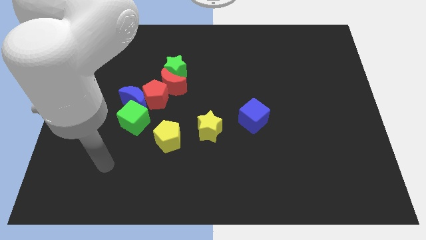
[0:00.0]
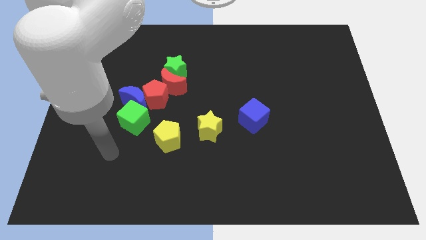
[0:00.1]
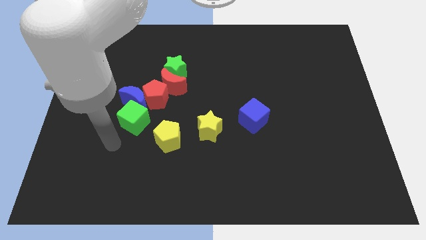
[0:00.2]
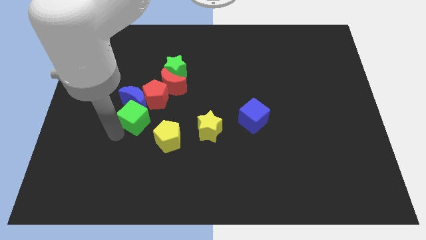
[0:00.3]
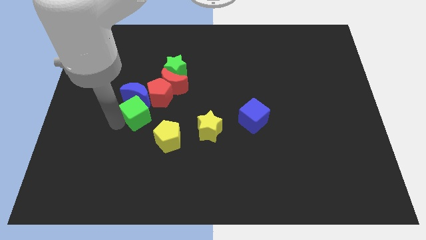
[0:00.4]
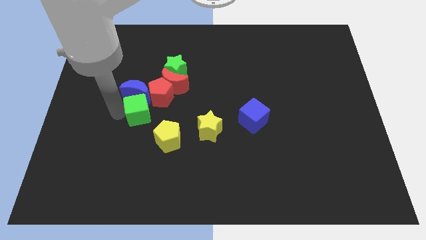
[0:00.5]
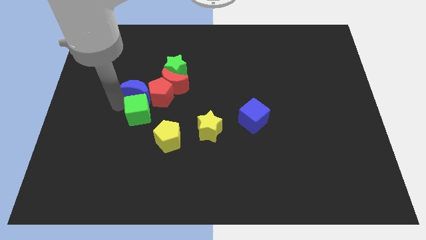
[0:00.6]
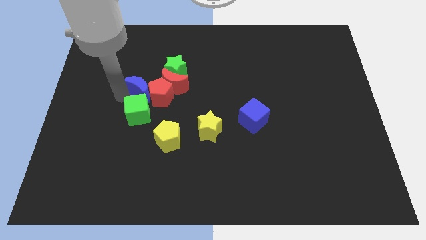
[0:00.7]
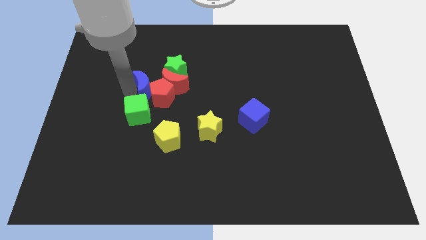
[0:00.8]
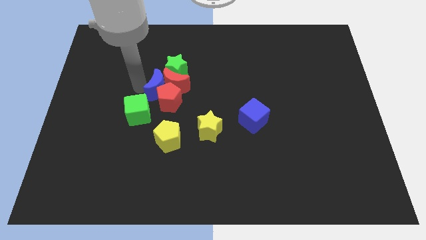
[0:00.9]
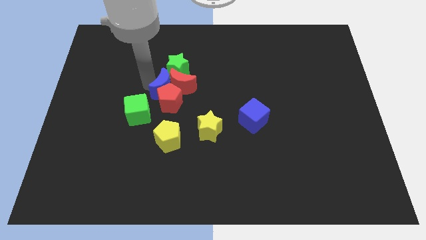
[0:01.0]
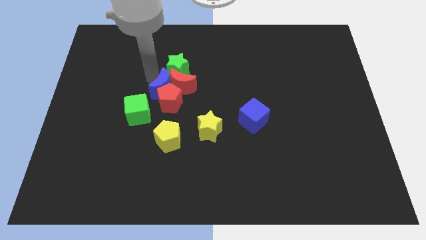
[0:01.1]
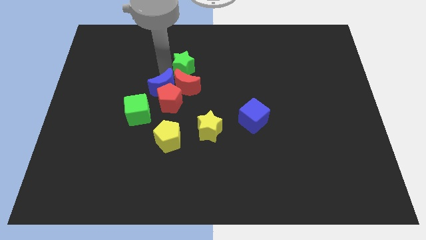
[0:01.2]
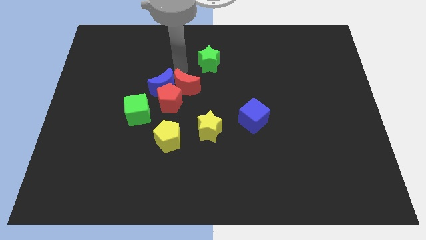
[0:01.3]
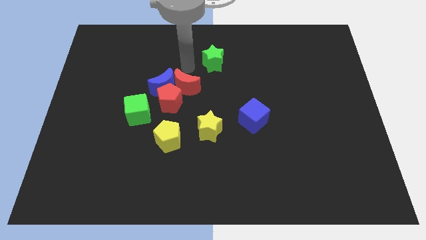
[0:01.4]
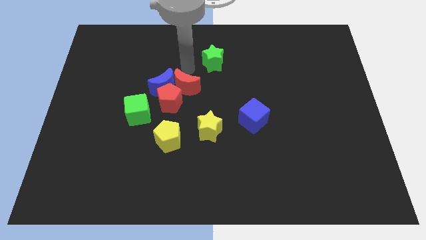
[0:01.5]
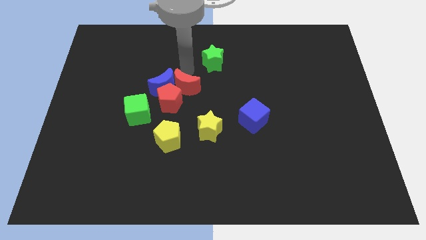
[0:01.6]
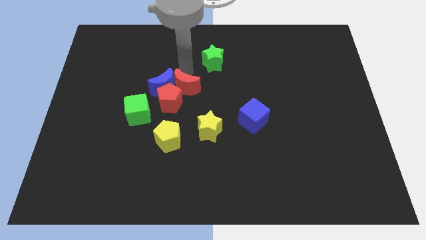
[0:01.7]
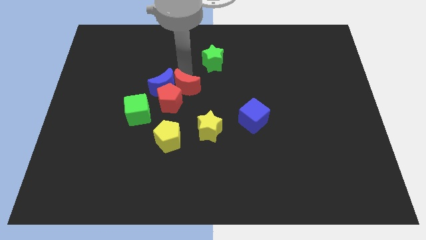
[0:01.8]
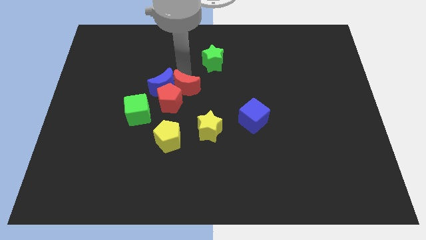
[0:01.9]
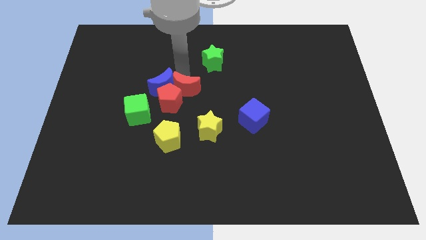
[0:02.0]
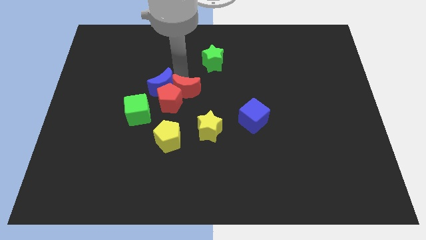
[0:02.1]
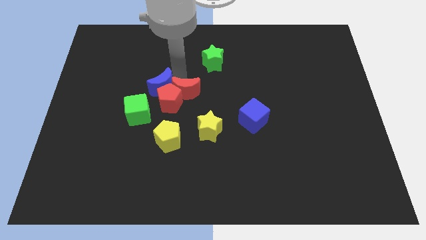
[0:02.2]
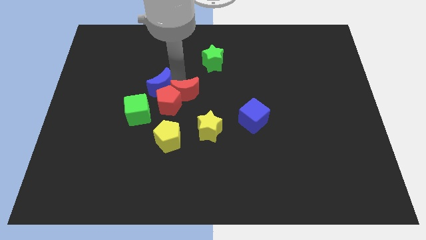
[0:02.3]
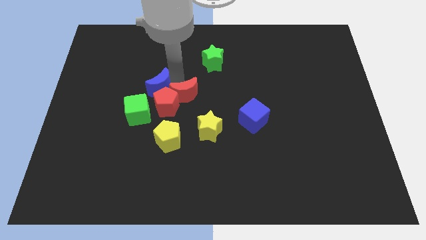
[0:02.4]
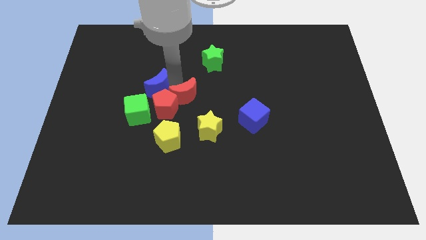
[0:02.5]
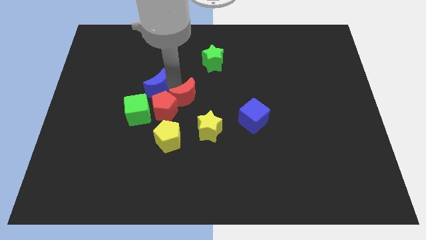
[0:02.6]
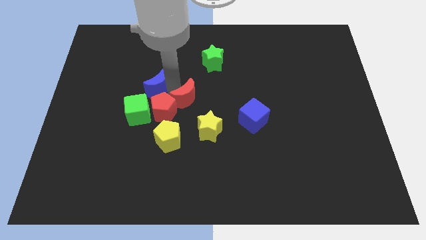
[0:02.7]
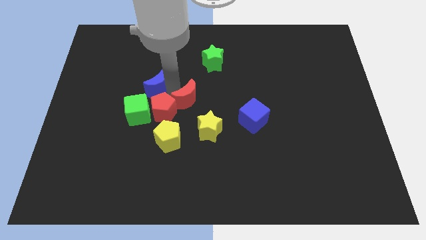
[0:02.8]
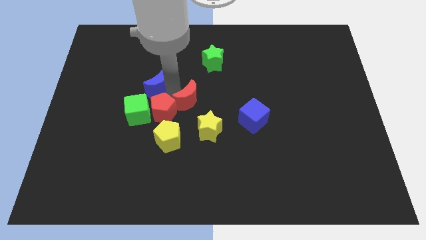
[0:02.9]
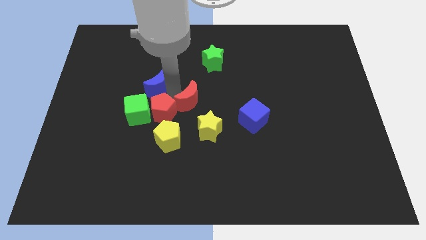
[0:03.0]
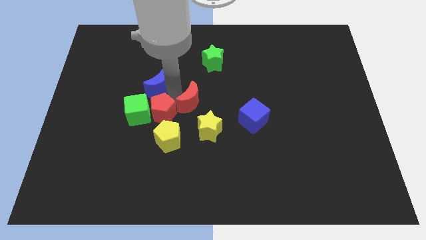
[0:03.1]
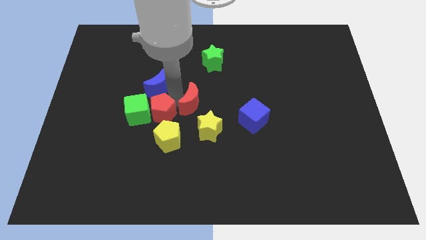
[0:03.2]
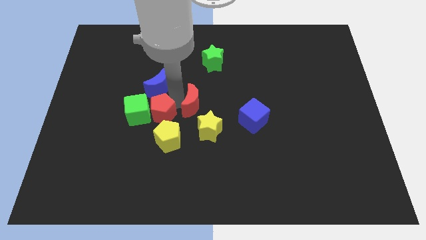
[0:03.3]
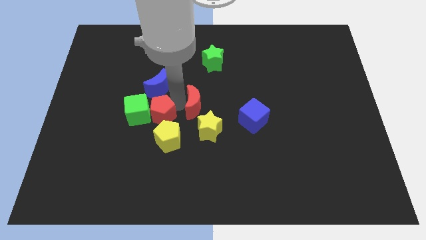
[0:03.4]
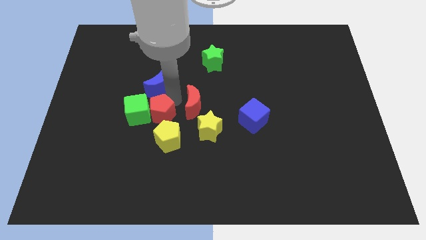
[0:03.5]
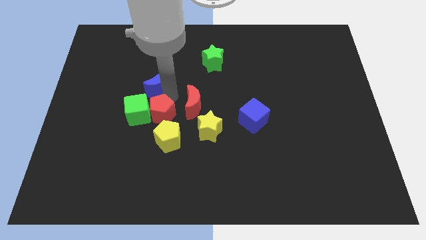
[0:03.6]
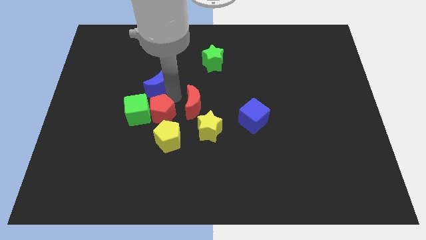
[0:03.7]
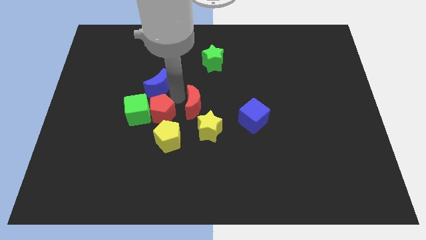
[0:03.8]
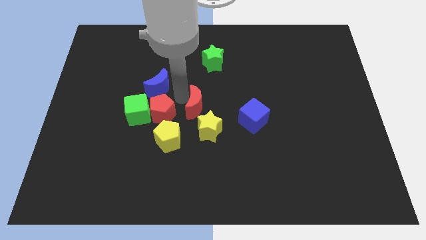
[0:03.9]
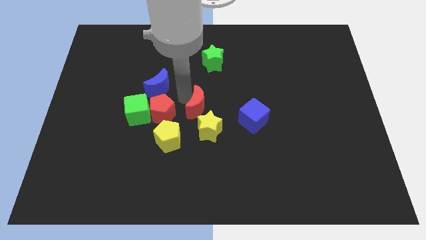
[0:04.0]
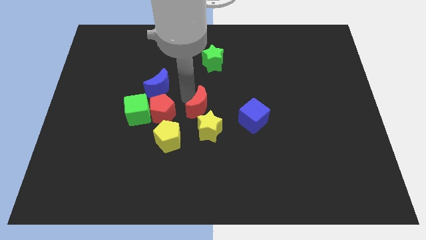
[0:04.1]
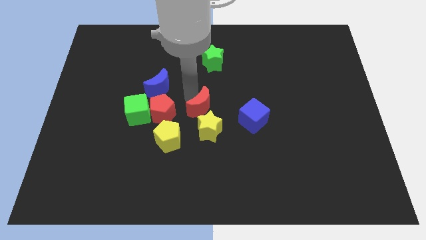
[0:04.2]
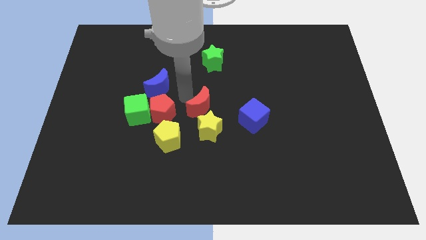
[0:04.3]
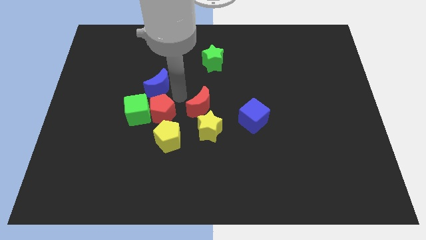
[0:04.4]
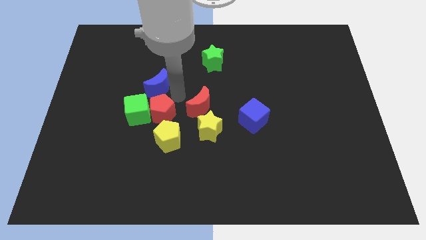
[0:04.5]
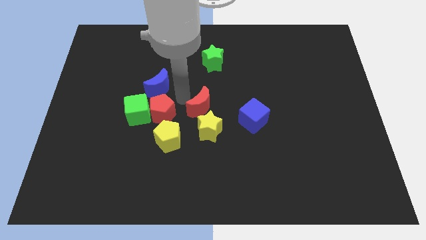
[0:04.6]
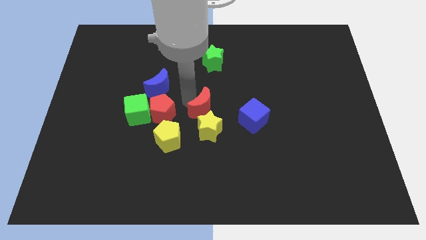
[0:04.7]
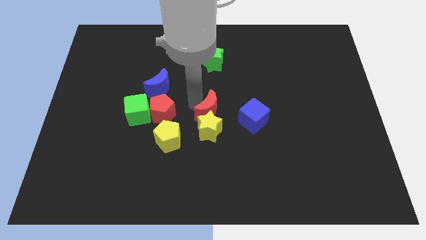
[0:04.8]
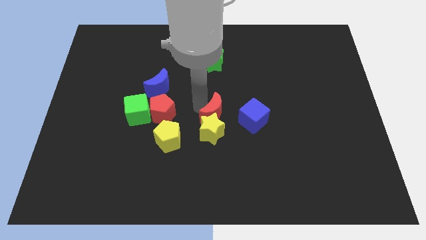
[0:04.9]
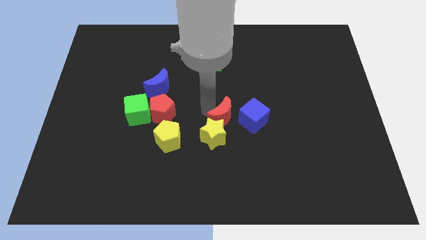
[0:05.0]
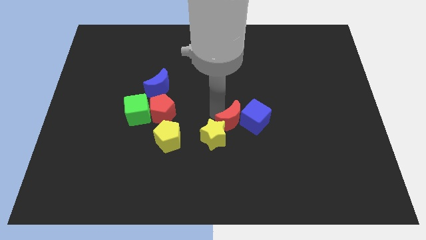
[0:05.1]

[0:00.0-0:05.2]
put the red moon to the right of the yellow star

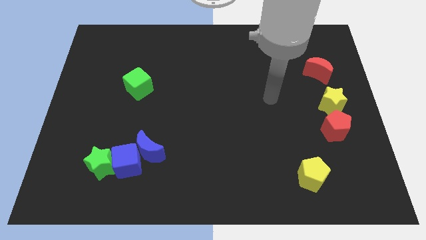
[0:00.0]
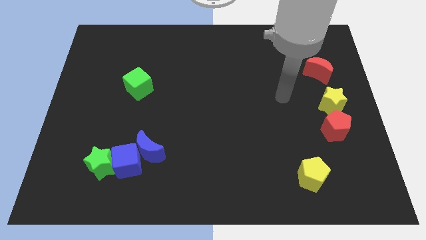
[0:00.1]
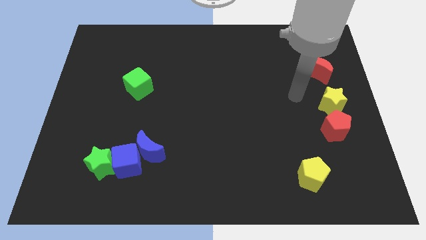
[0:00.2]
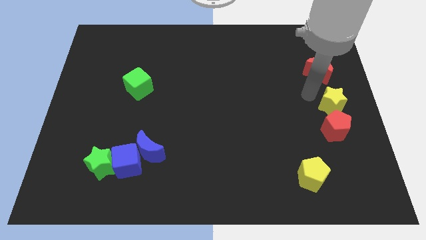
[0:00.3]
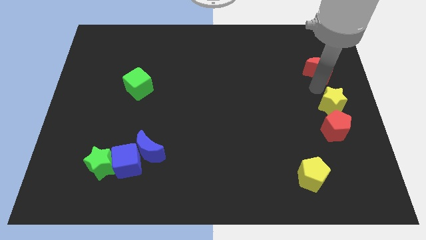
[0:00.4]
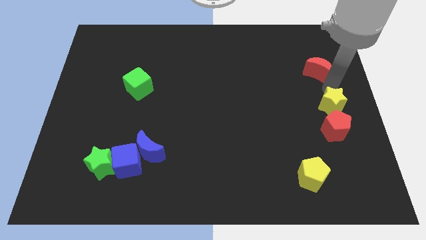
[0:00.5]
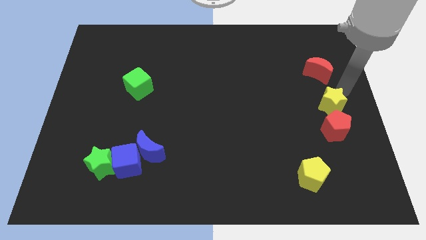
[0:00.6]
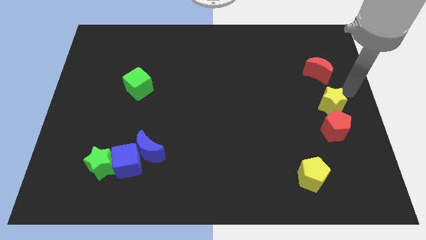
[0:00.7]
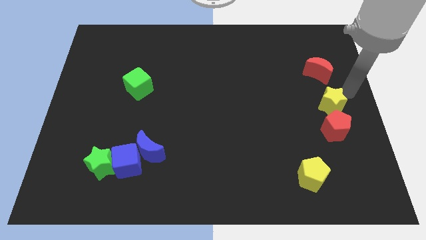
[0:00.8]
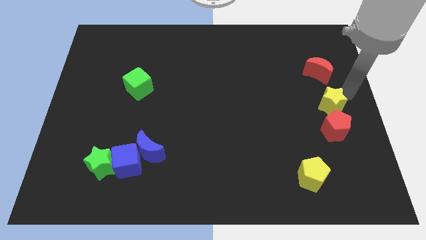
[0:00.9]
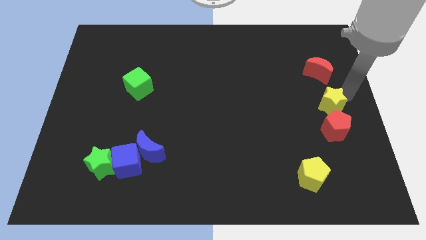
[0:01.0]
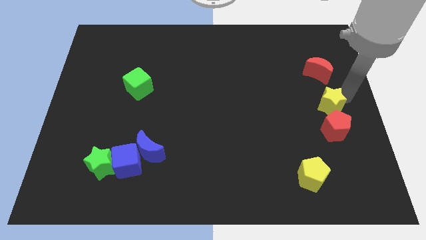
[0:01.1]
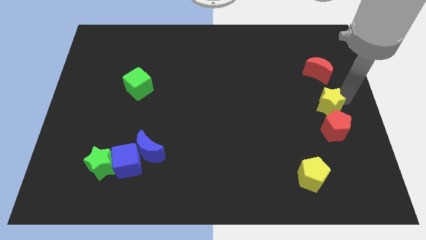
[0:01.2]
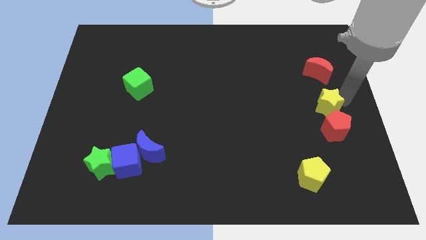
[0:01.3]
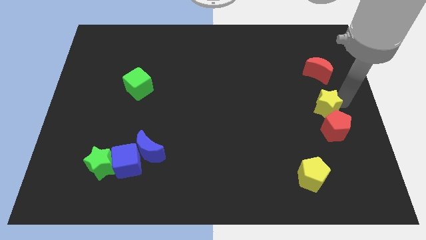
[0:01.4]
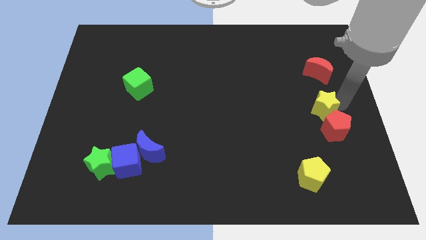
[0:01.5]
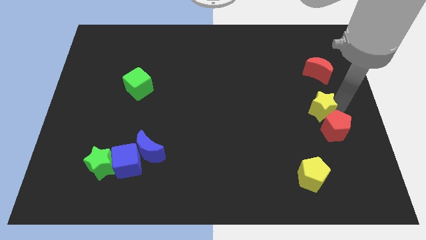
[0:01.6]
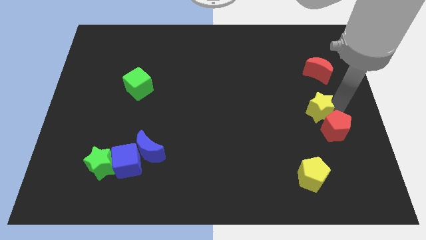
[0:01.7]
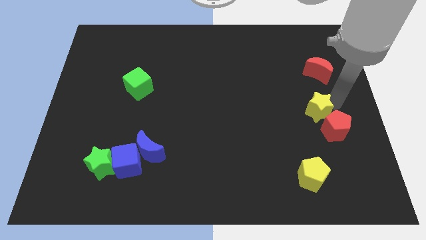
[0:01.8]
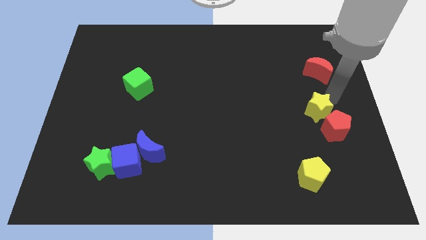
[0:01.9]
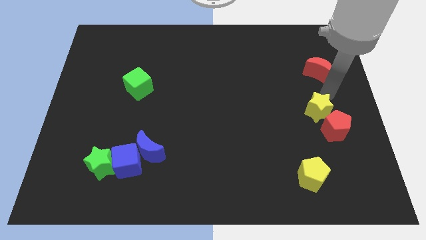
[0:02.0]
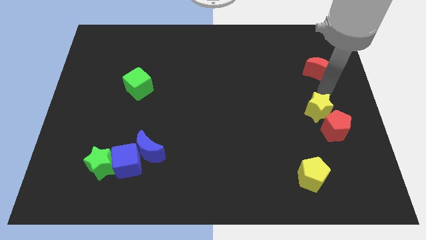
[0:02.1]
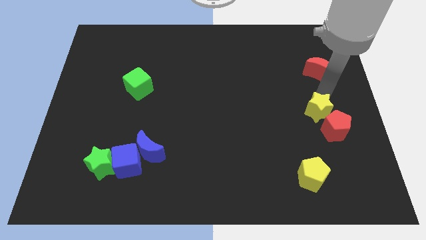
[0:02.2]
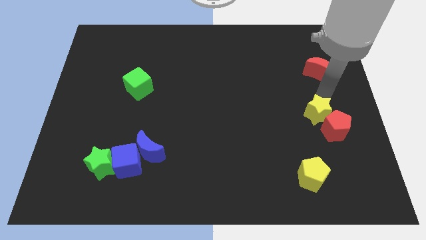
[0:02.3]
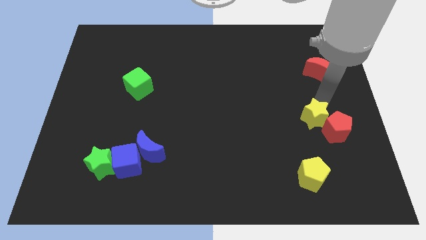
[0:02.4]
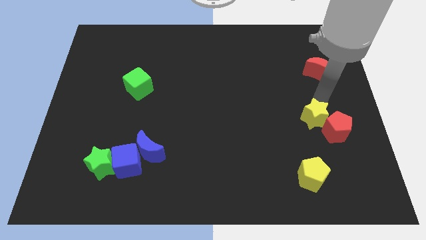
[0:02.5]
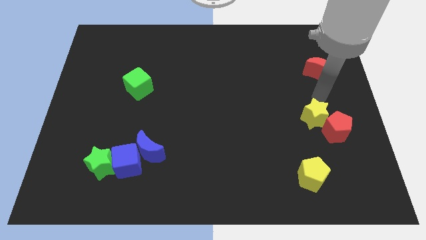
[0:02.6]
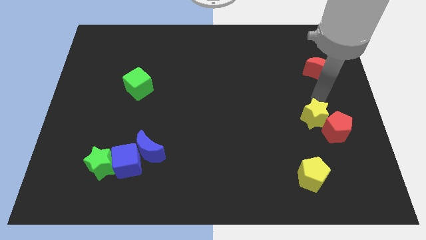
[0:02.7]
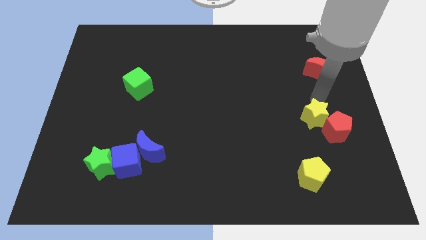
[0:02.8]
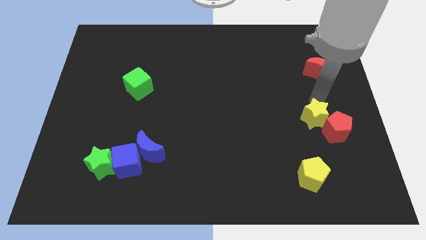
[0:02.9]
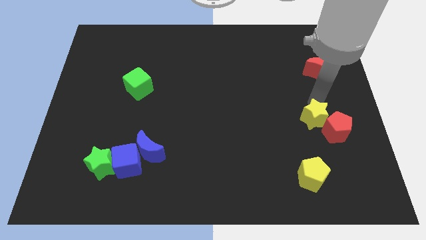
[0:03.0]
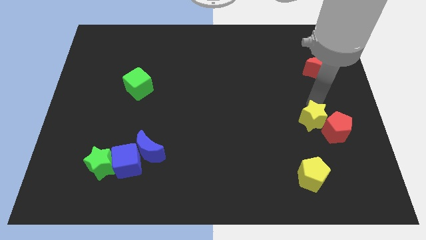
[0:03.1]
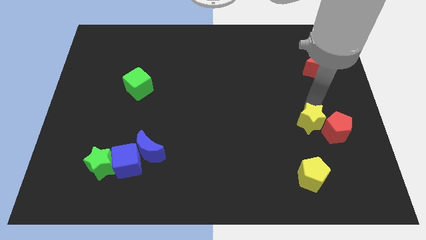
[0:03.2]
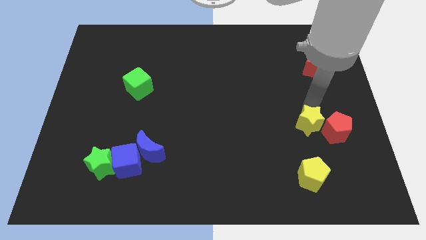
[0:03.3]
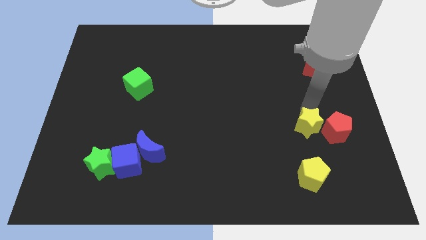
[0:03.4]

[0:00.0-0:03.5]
put the yellow star diagonally down and to the left of the red pentagon
